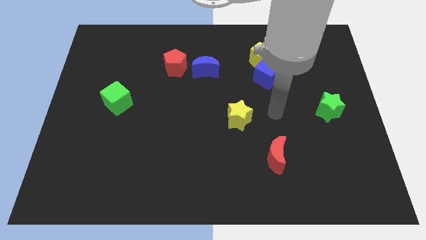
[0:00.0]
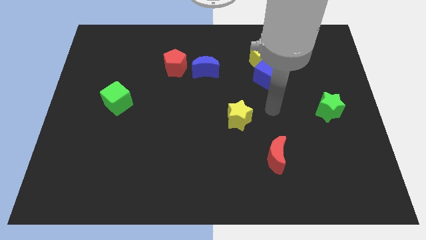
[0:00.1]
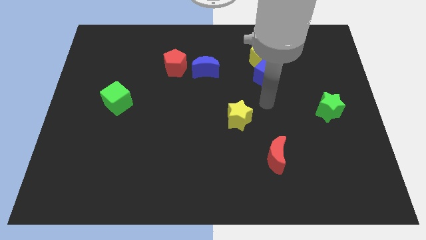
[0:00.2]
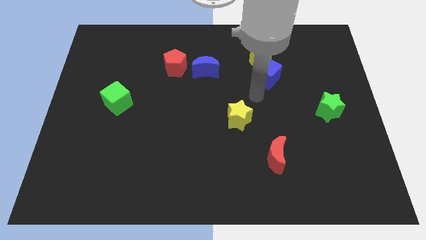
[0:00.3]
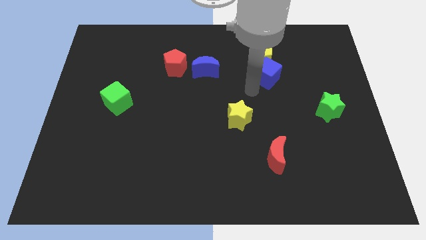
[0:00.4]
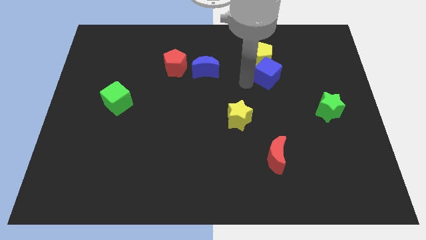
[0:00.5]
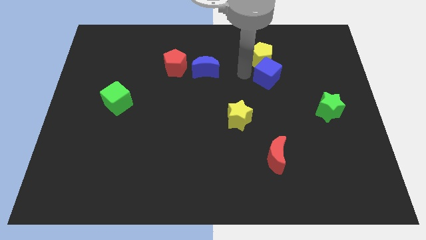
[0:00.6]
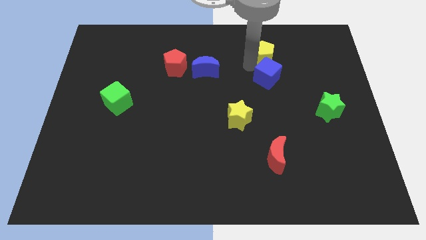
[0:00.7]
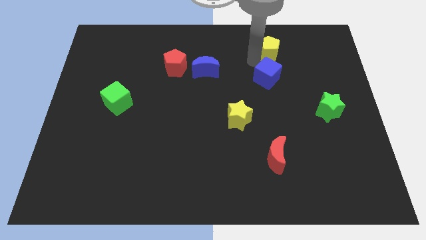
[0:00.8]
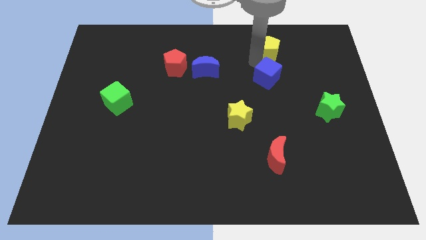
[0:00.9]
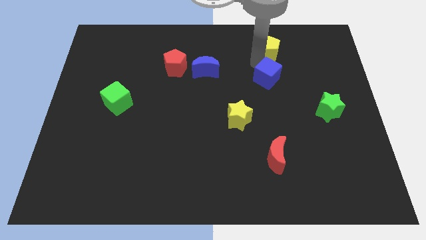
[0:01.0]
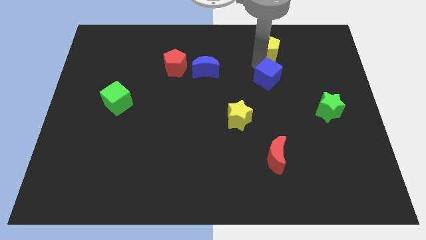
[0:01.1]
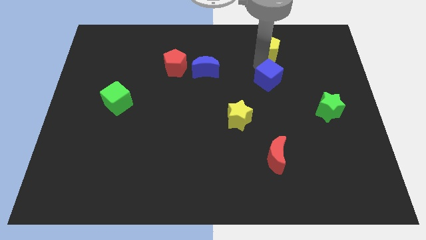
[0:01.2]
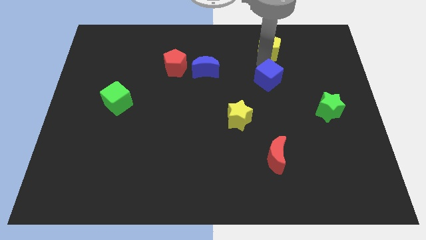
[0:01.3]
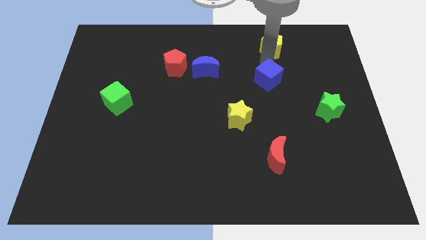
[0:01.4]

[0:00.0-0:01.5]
separate the blue cube from the yellow pentagon

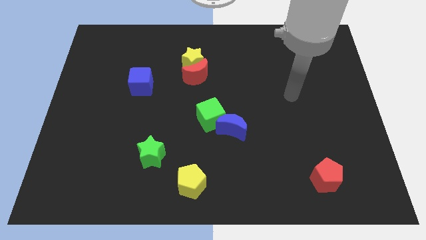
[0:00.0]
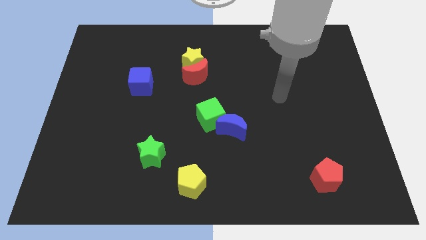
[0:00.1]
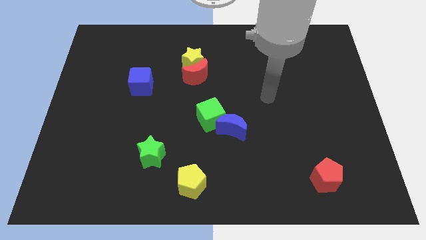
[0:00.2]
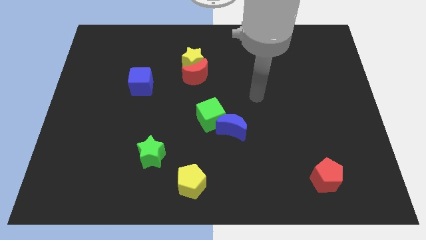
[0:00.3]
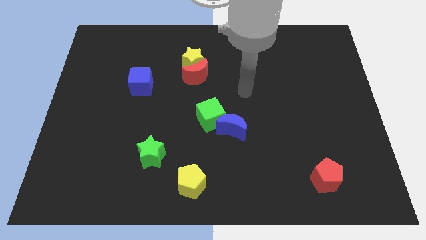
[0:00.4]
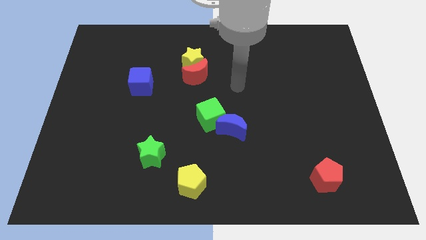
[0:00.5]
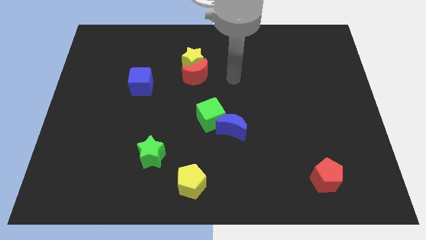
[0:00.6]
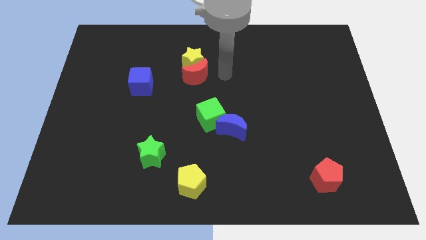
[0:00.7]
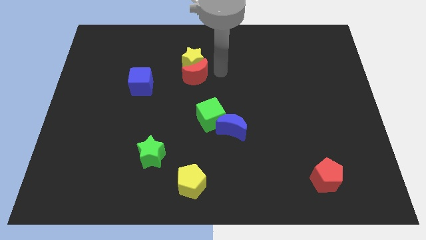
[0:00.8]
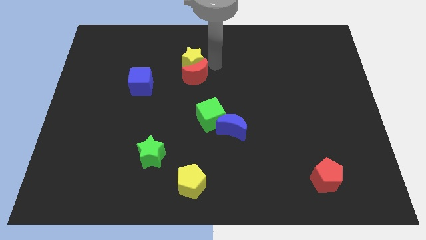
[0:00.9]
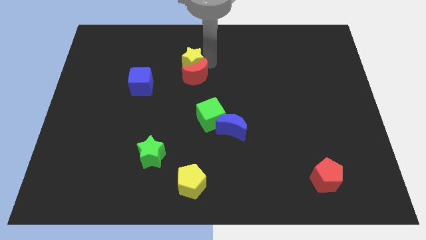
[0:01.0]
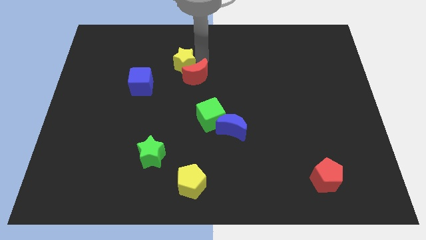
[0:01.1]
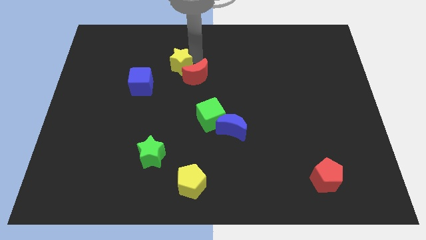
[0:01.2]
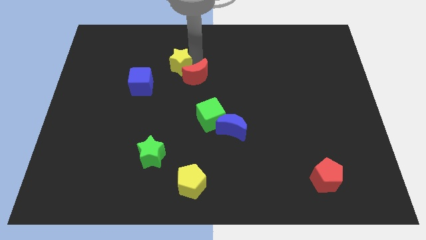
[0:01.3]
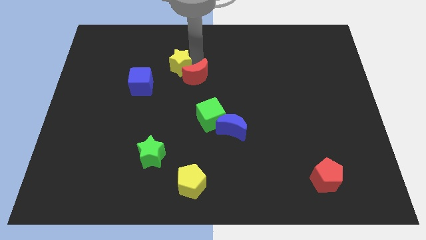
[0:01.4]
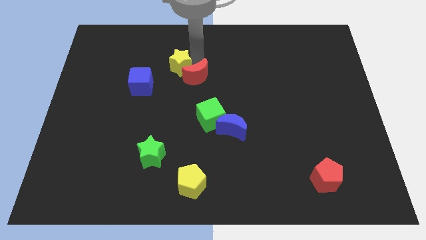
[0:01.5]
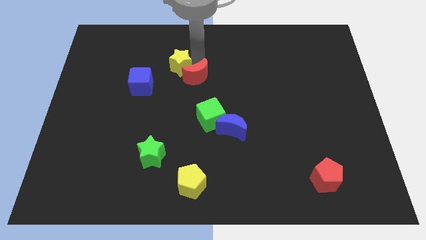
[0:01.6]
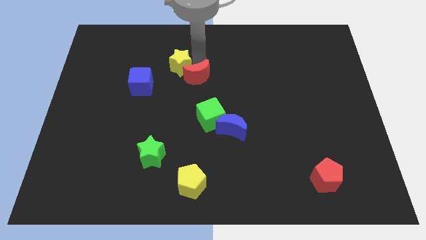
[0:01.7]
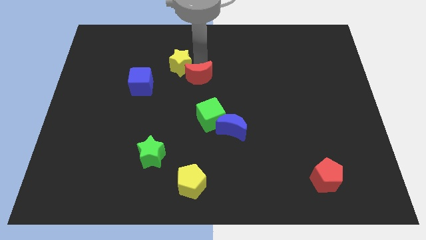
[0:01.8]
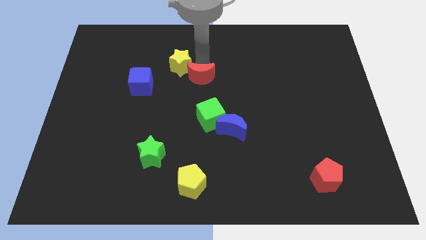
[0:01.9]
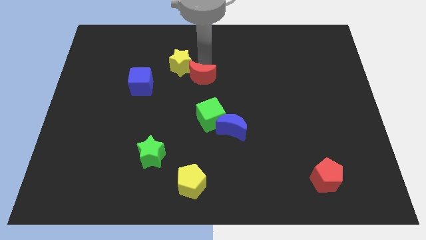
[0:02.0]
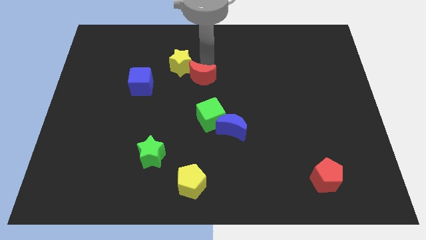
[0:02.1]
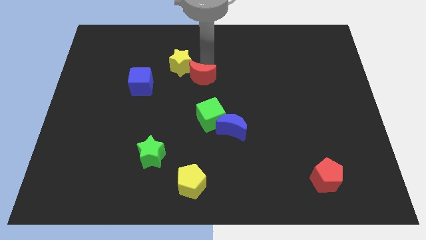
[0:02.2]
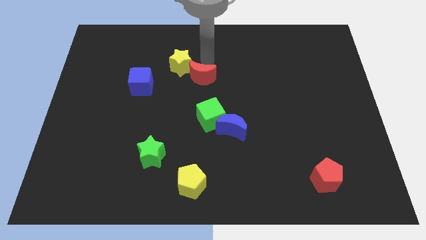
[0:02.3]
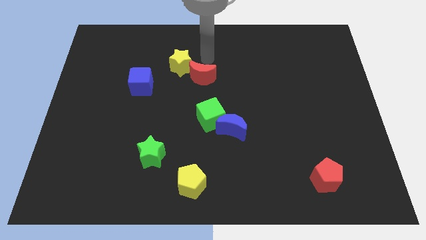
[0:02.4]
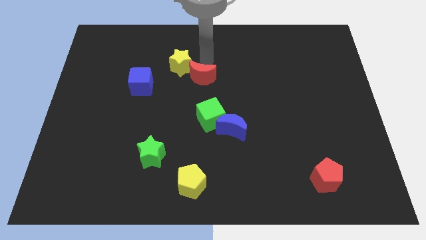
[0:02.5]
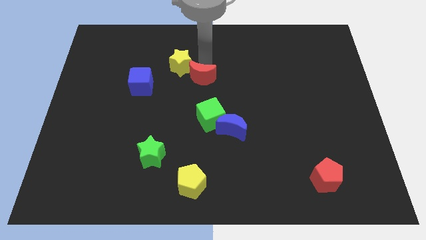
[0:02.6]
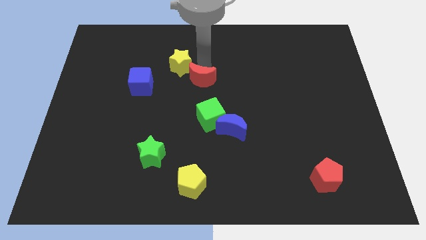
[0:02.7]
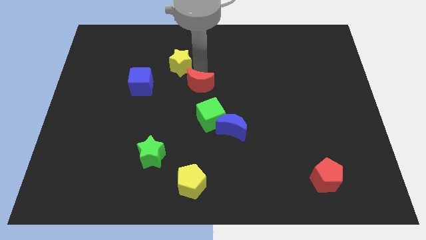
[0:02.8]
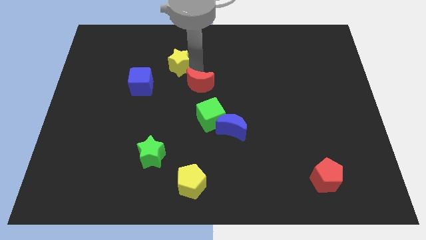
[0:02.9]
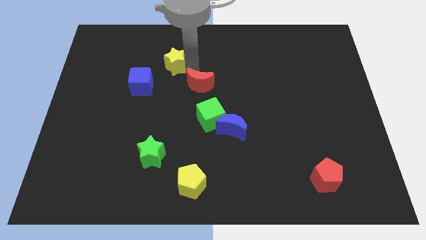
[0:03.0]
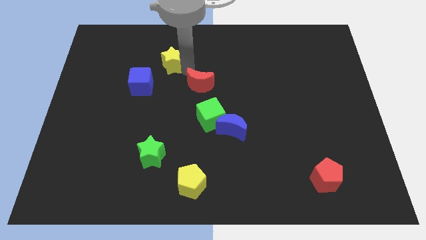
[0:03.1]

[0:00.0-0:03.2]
pull the red moon apart from the yellow star

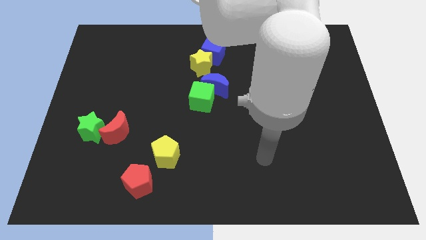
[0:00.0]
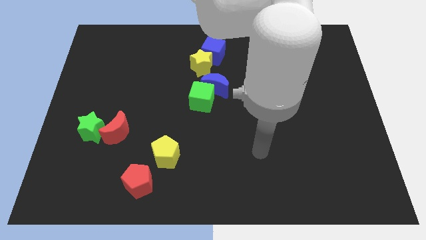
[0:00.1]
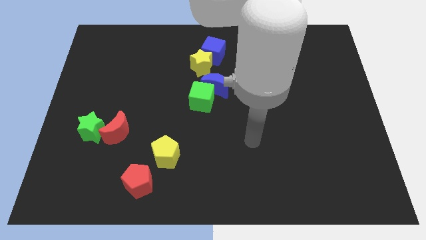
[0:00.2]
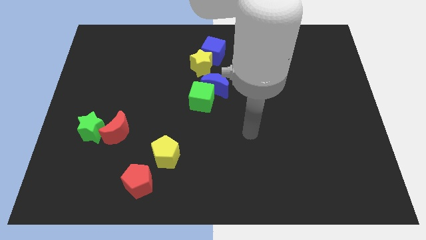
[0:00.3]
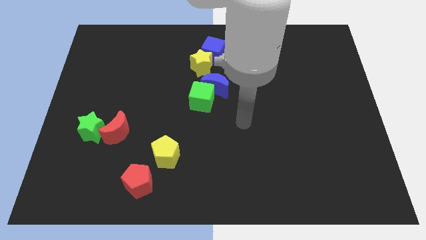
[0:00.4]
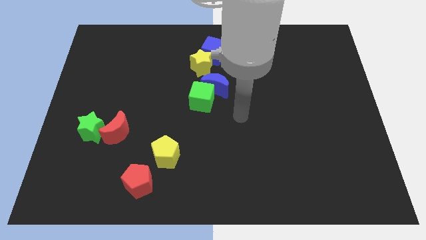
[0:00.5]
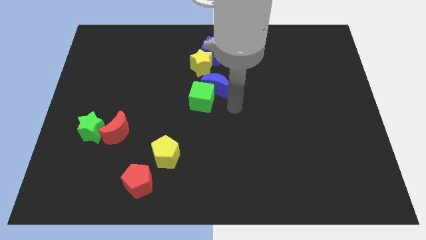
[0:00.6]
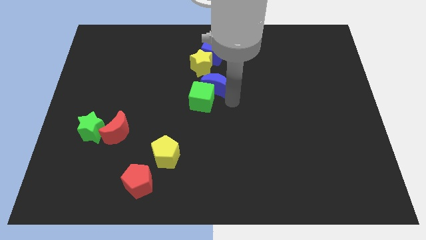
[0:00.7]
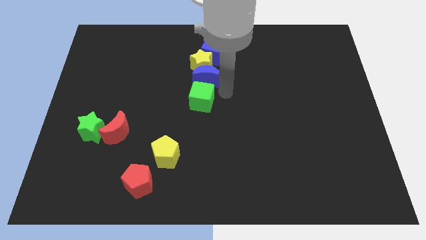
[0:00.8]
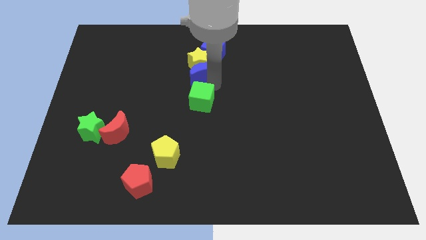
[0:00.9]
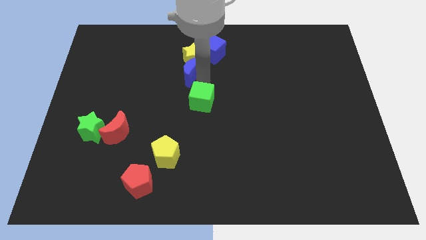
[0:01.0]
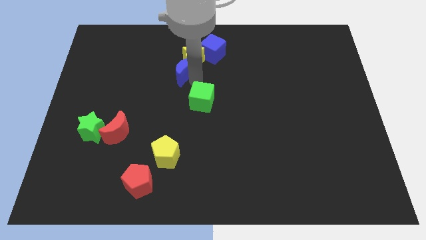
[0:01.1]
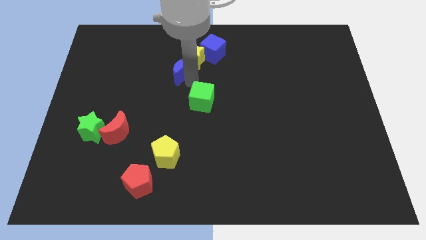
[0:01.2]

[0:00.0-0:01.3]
pull the green cube apart from the blue moon

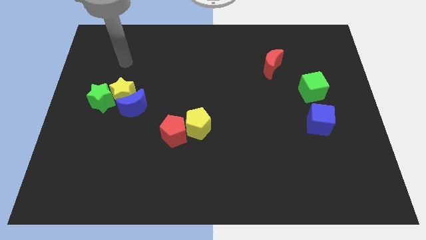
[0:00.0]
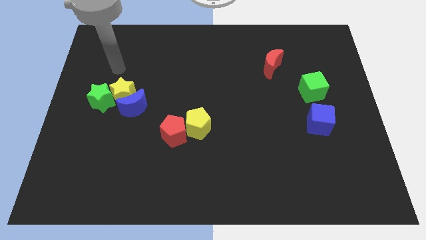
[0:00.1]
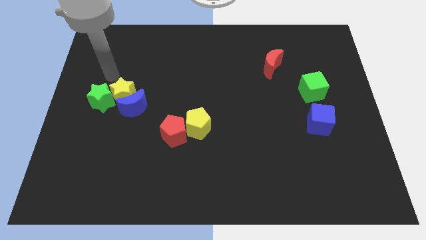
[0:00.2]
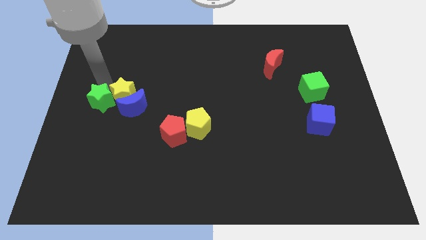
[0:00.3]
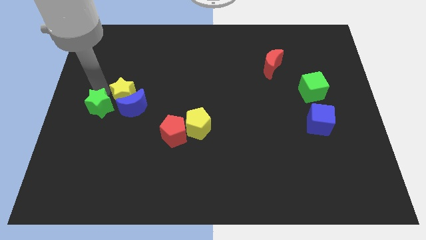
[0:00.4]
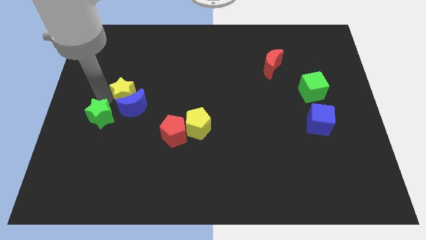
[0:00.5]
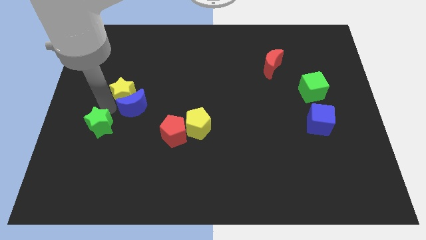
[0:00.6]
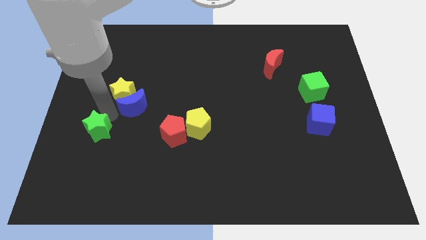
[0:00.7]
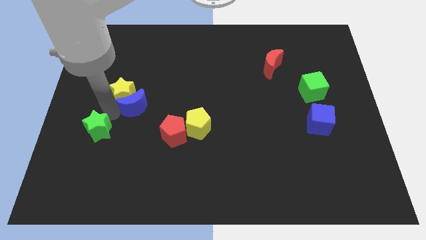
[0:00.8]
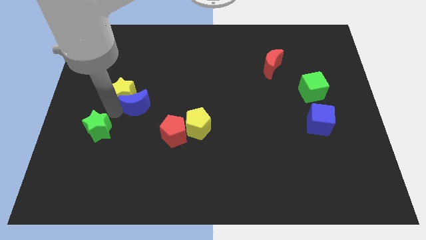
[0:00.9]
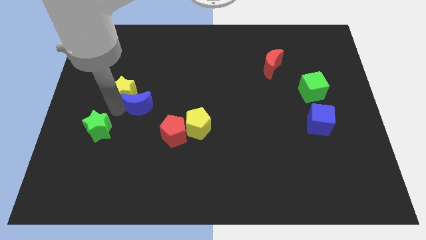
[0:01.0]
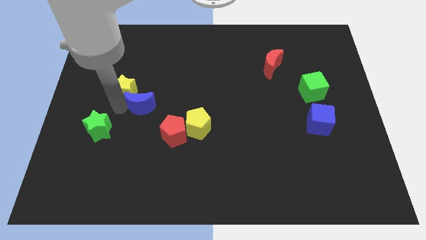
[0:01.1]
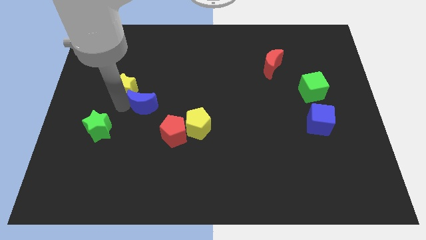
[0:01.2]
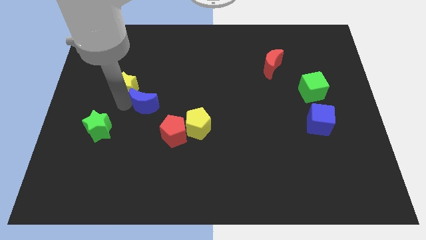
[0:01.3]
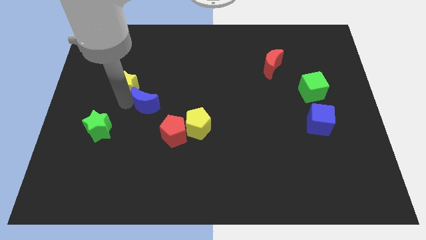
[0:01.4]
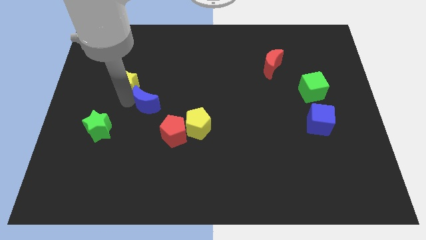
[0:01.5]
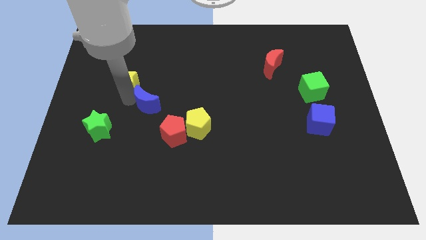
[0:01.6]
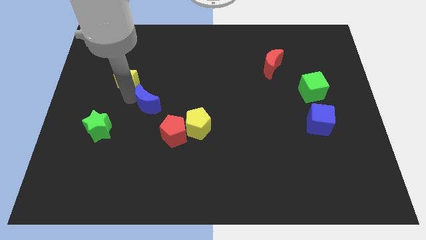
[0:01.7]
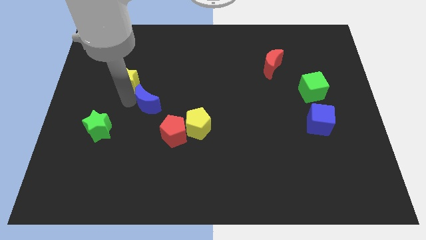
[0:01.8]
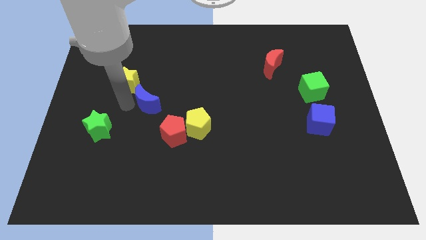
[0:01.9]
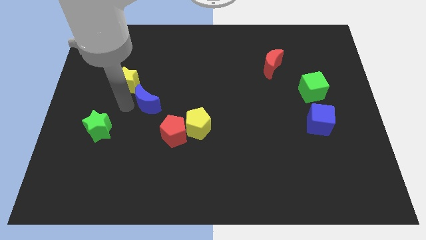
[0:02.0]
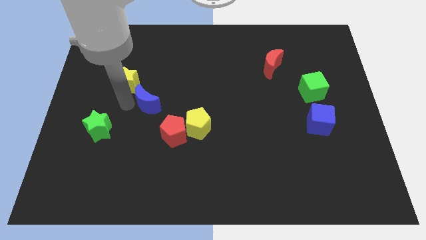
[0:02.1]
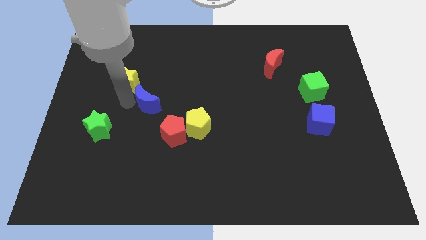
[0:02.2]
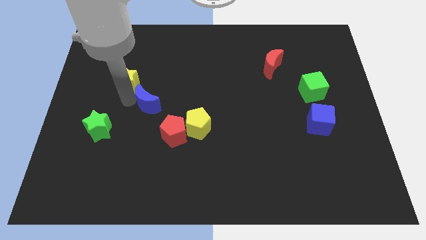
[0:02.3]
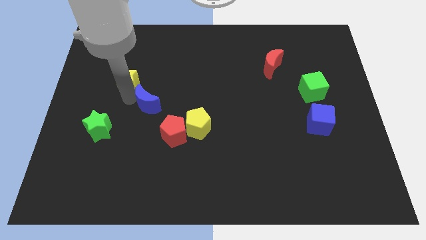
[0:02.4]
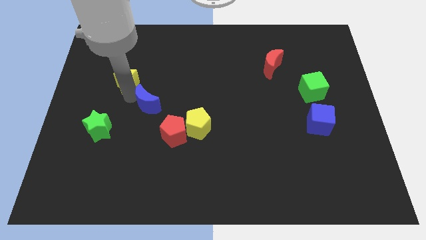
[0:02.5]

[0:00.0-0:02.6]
move the yellow star away from the blue moon and green star

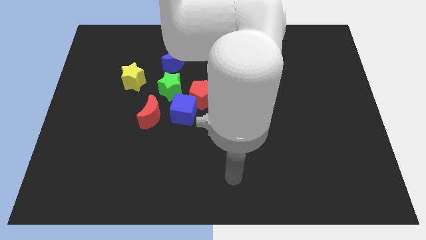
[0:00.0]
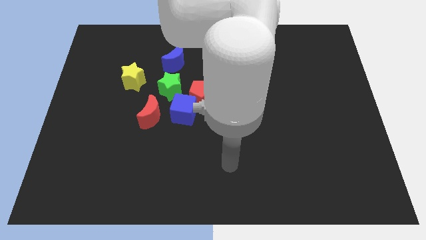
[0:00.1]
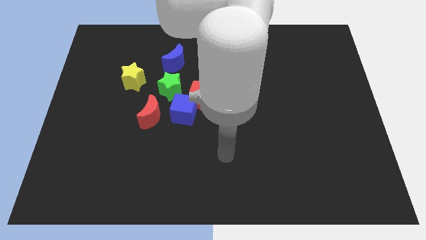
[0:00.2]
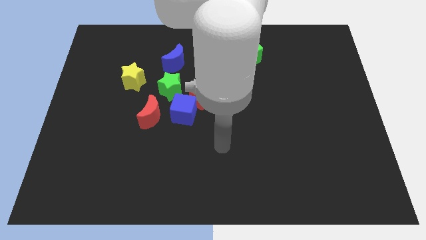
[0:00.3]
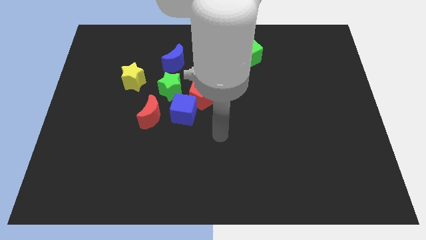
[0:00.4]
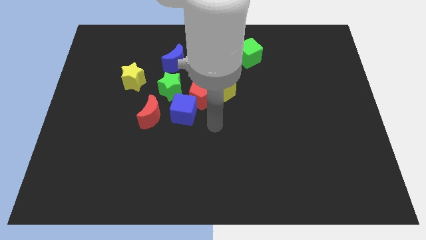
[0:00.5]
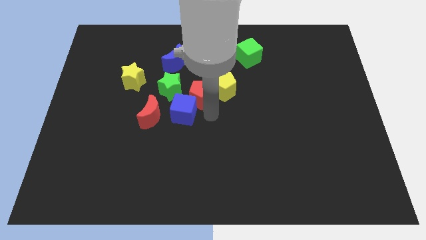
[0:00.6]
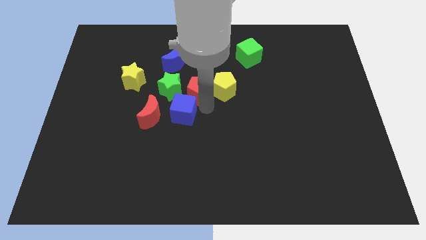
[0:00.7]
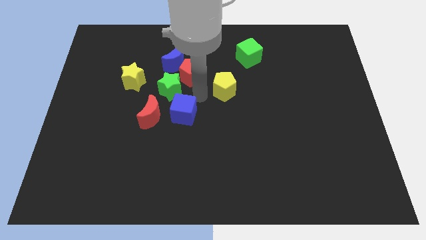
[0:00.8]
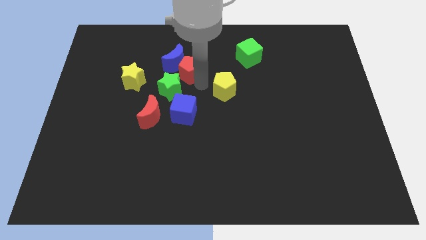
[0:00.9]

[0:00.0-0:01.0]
pull the yellow pentagon apart from the red pentagon
